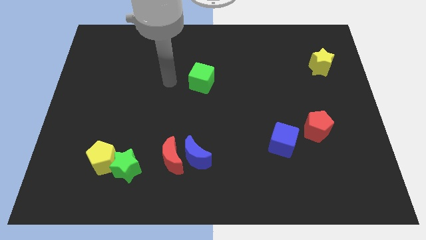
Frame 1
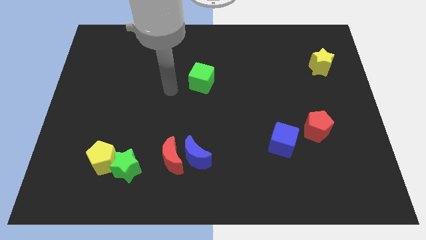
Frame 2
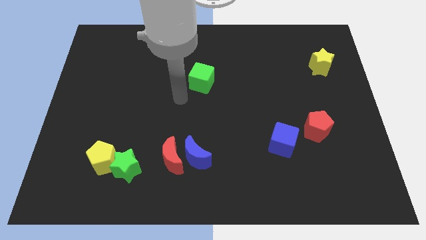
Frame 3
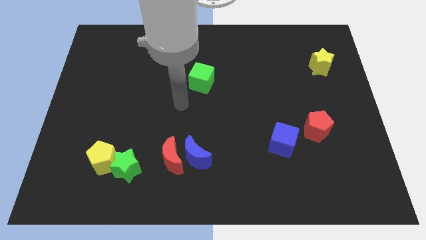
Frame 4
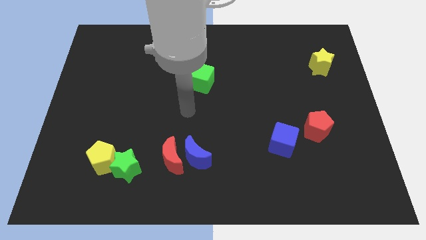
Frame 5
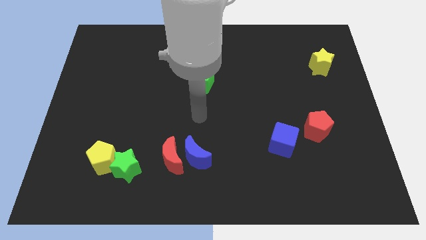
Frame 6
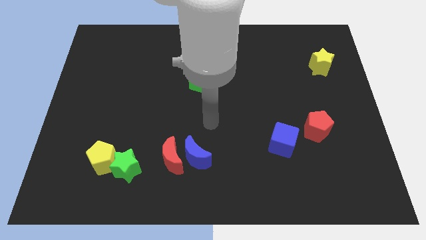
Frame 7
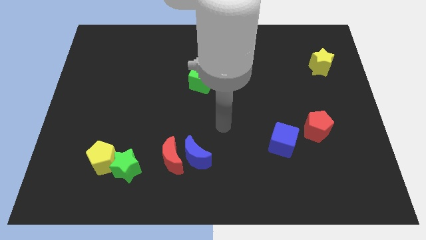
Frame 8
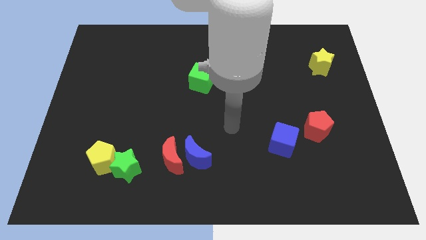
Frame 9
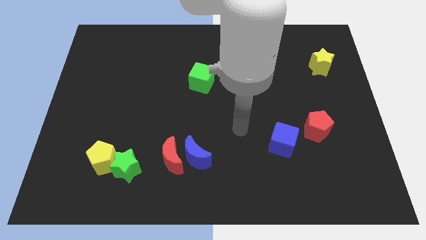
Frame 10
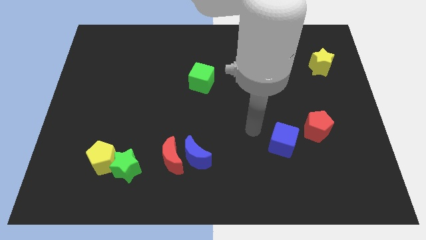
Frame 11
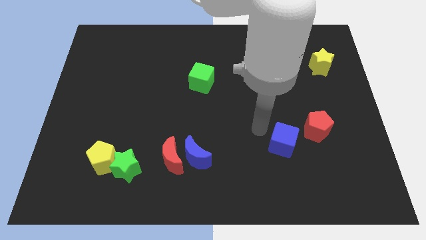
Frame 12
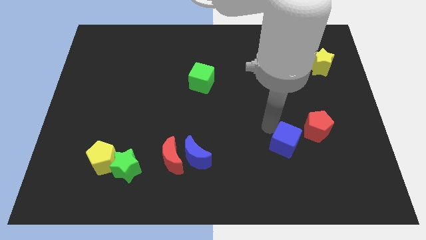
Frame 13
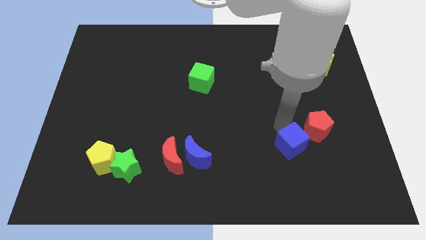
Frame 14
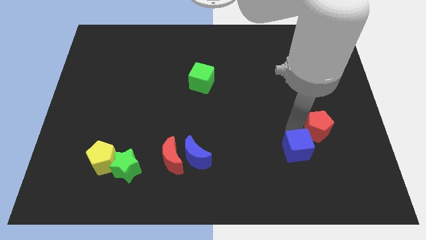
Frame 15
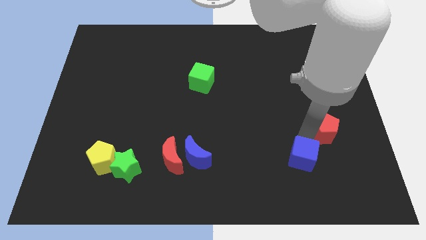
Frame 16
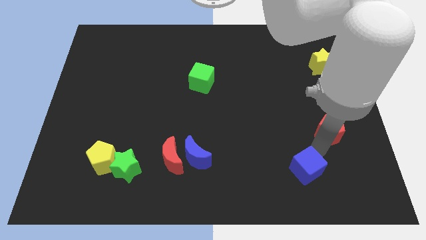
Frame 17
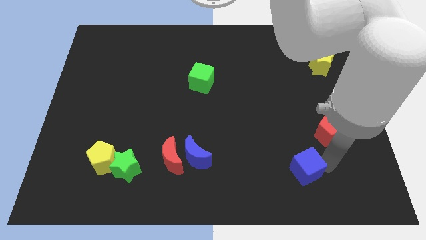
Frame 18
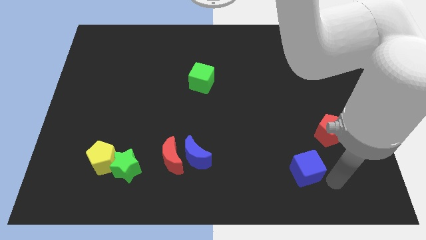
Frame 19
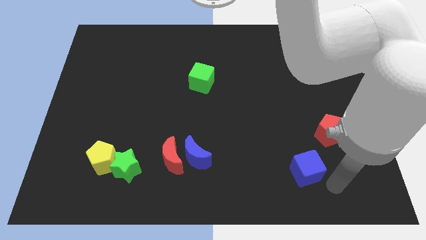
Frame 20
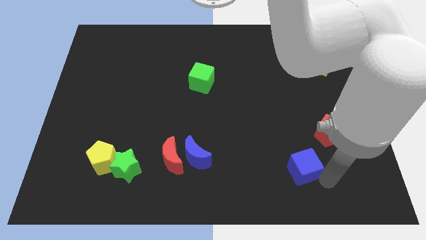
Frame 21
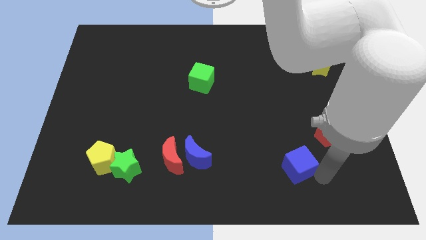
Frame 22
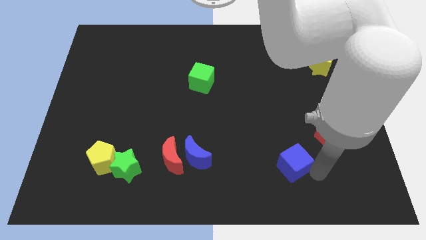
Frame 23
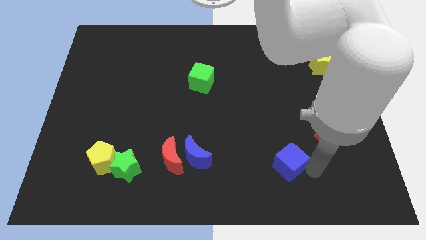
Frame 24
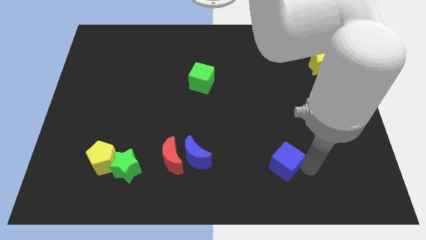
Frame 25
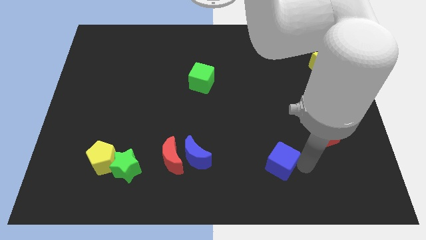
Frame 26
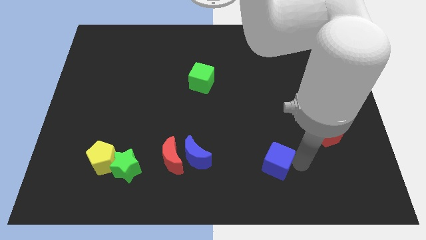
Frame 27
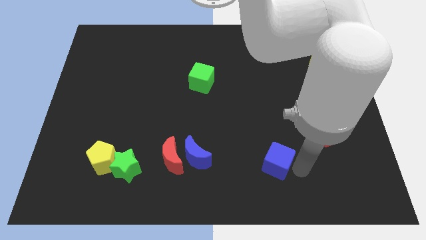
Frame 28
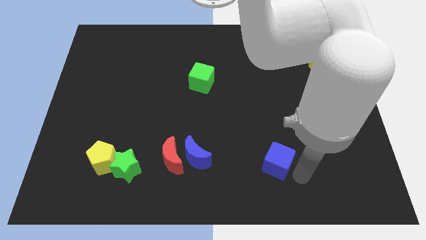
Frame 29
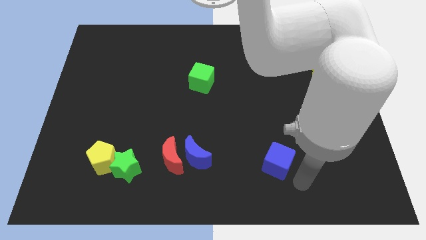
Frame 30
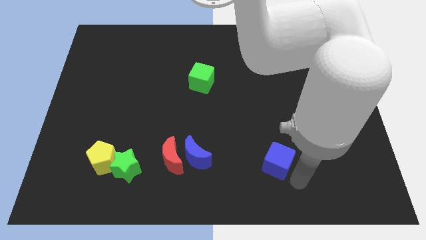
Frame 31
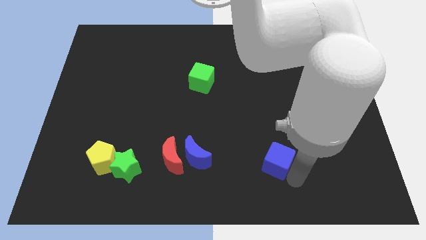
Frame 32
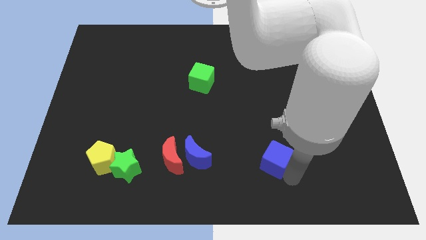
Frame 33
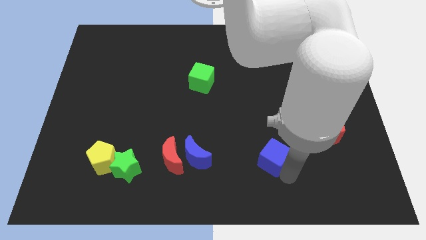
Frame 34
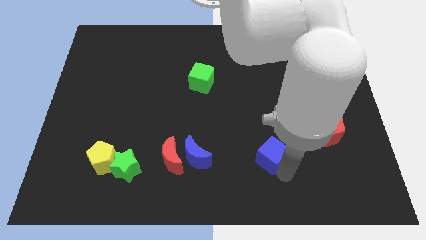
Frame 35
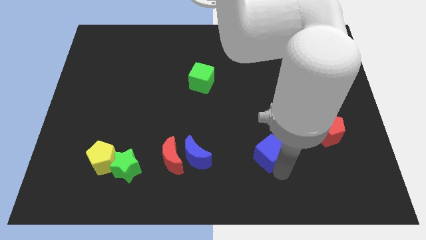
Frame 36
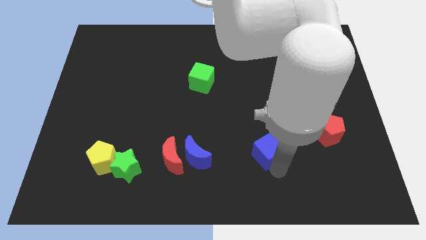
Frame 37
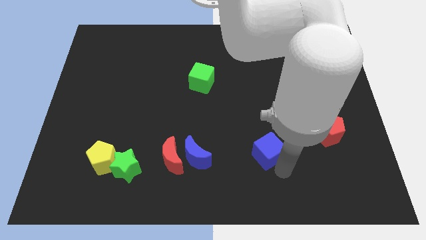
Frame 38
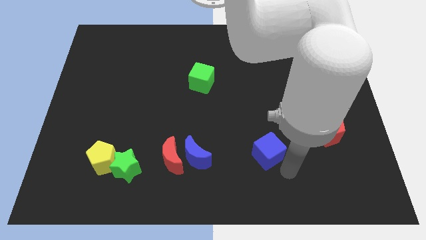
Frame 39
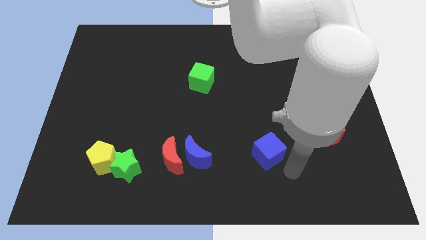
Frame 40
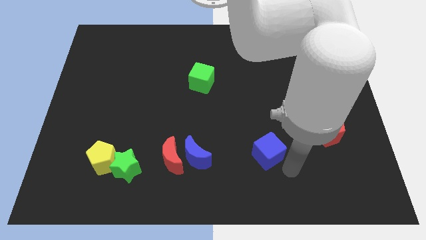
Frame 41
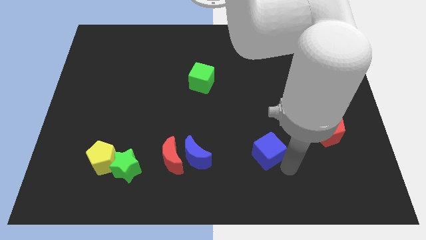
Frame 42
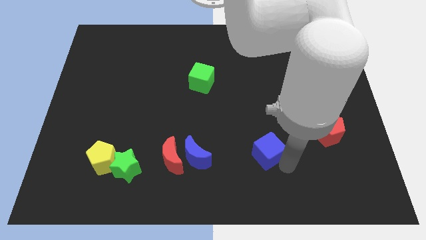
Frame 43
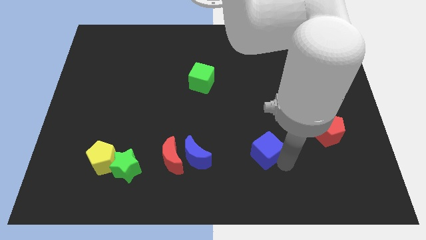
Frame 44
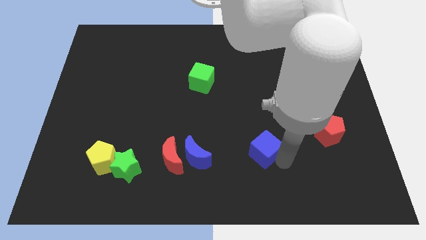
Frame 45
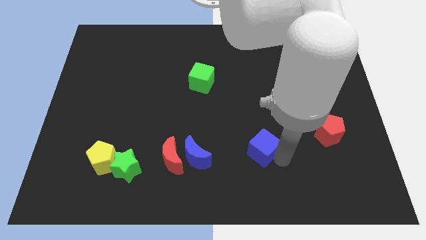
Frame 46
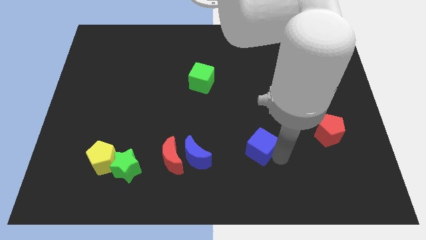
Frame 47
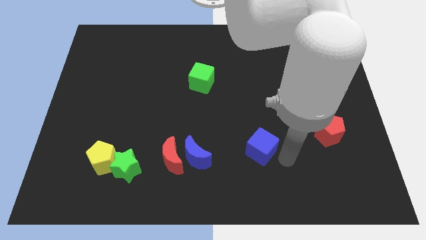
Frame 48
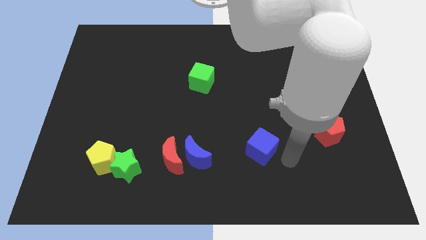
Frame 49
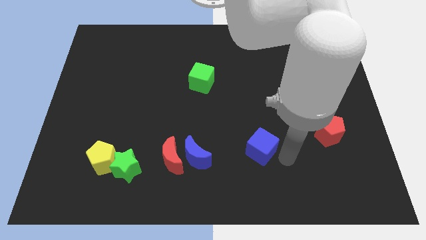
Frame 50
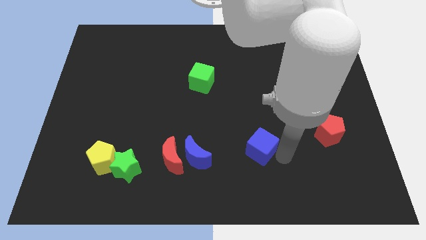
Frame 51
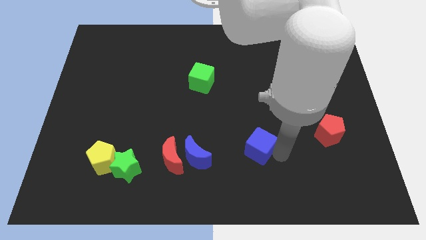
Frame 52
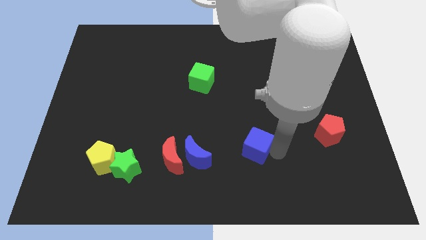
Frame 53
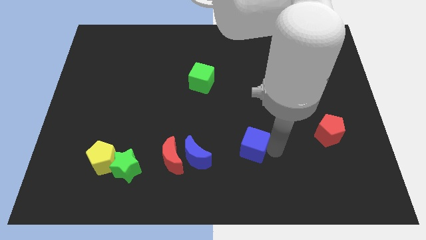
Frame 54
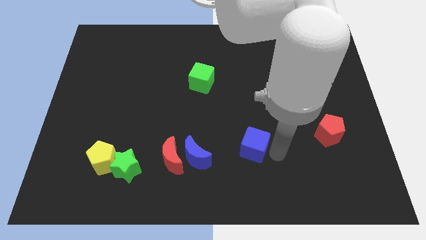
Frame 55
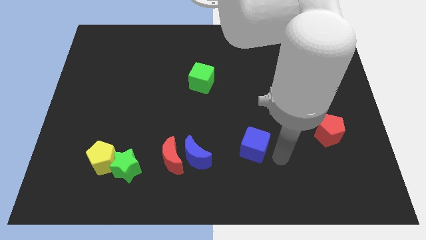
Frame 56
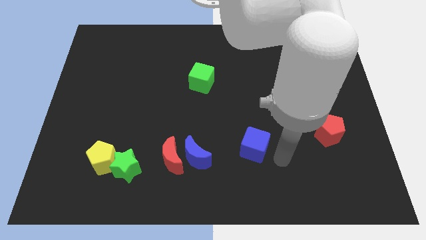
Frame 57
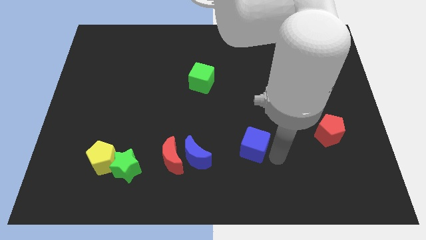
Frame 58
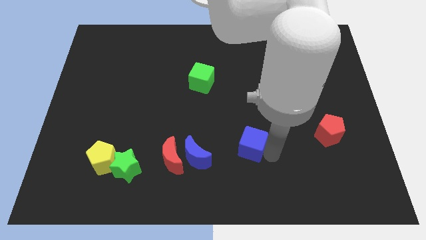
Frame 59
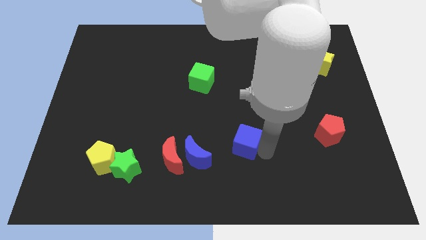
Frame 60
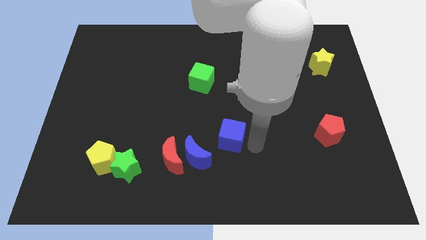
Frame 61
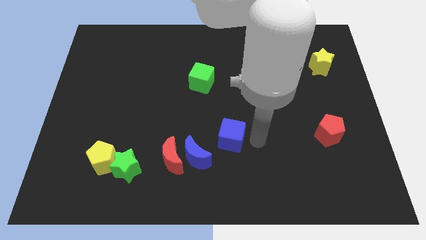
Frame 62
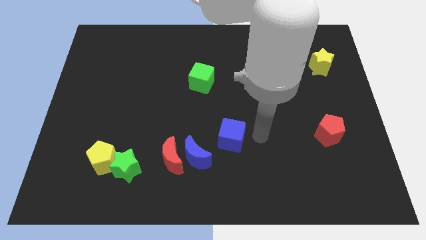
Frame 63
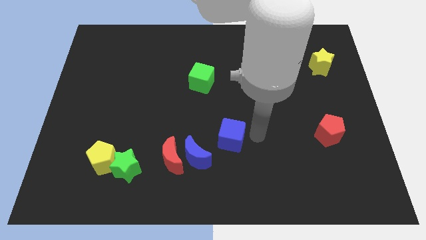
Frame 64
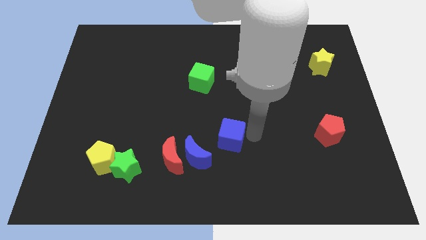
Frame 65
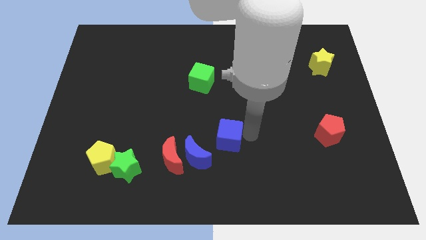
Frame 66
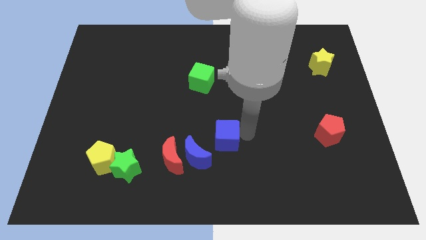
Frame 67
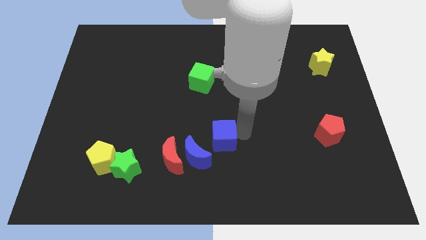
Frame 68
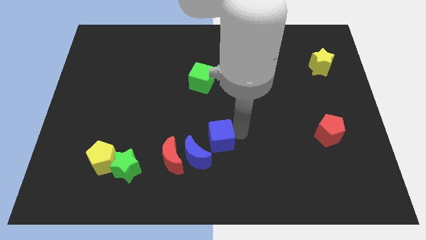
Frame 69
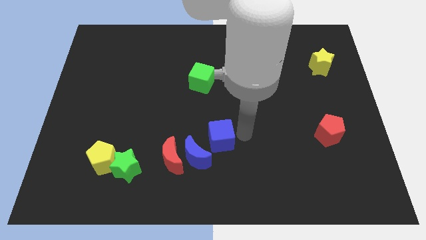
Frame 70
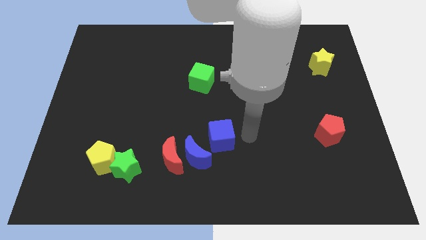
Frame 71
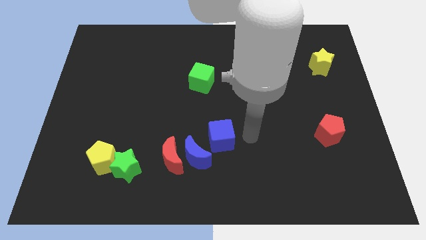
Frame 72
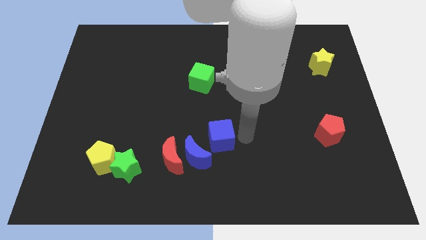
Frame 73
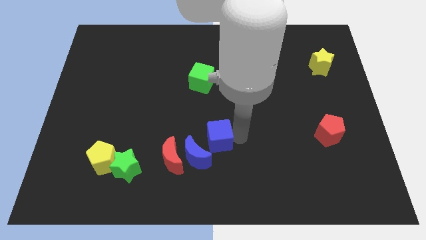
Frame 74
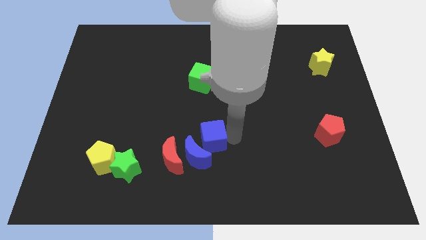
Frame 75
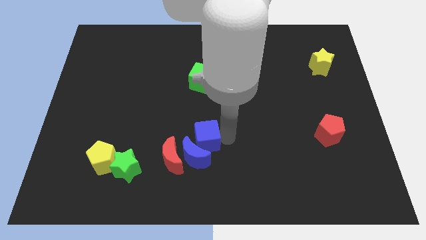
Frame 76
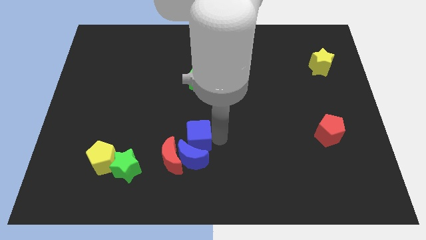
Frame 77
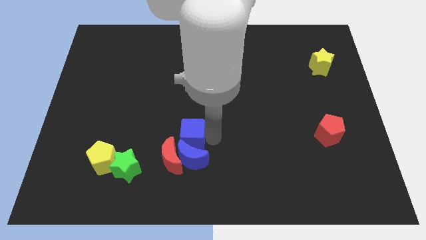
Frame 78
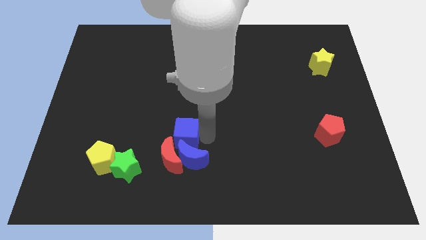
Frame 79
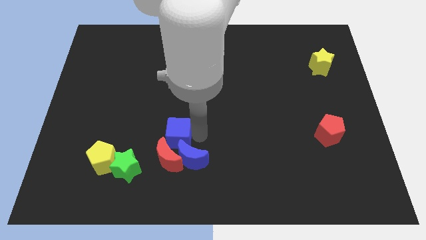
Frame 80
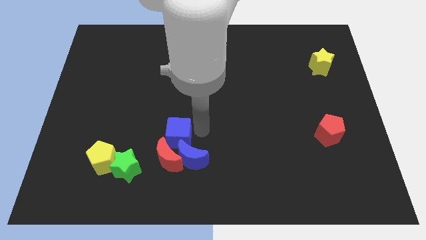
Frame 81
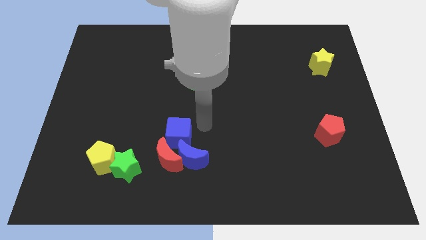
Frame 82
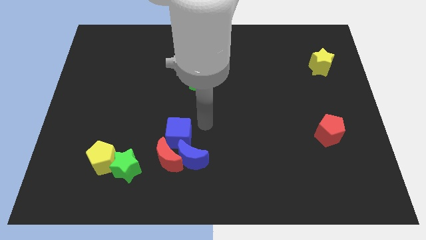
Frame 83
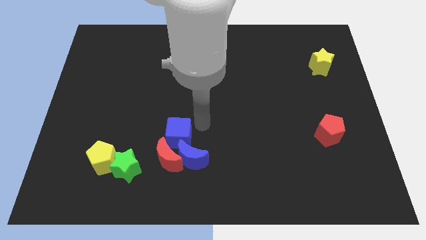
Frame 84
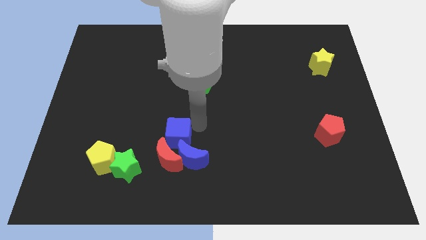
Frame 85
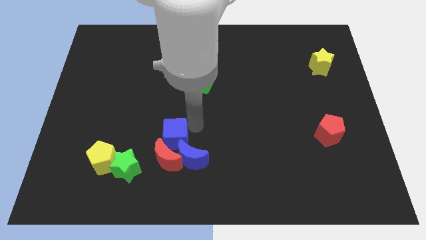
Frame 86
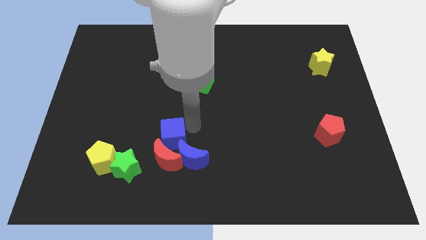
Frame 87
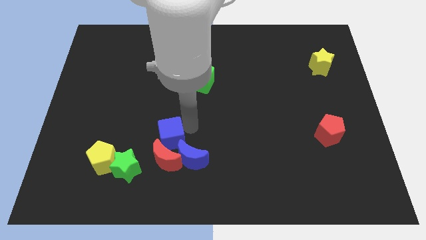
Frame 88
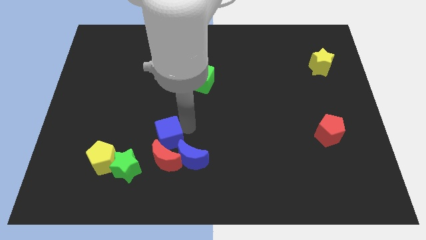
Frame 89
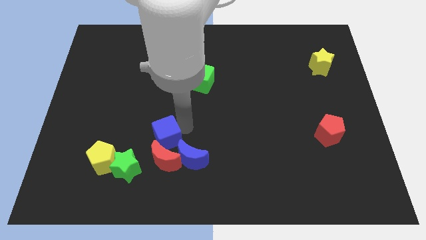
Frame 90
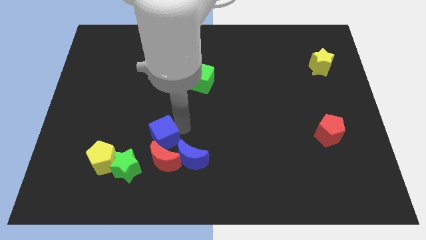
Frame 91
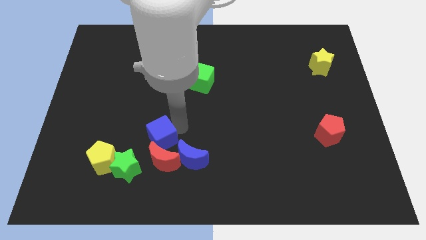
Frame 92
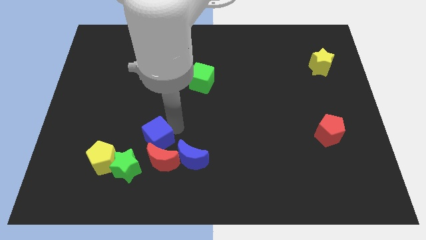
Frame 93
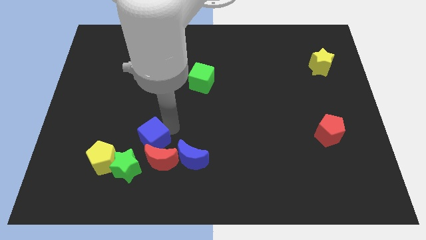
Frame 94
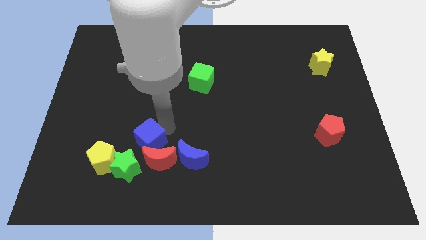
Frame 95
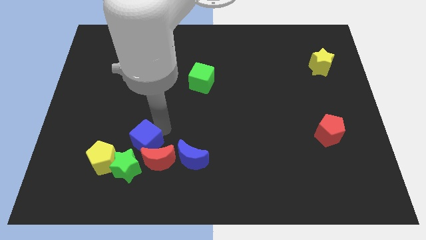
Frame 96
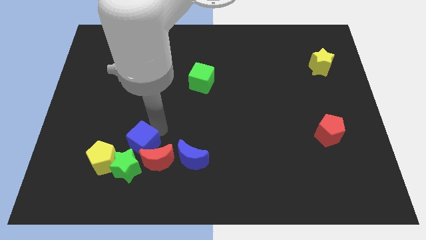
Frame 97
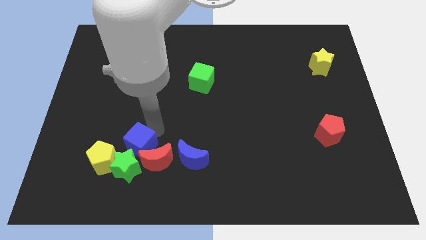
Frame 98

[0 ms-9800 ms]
push the blue cube next to the green star
